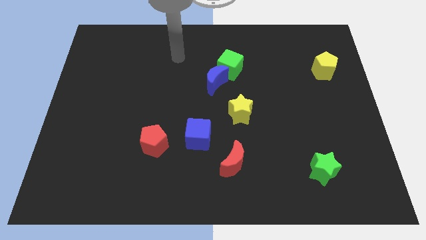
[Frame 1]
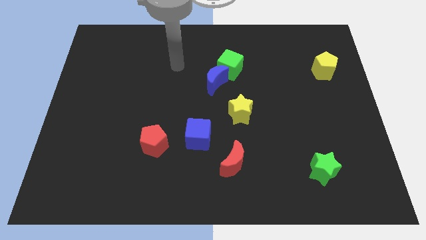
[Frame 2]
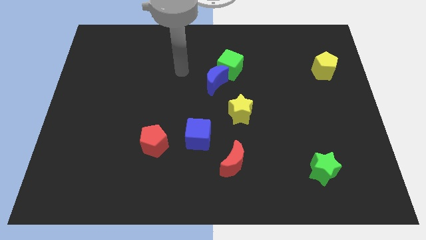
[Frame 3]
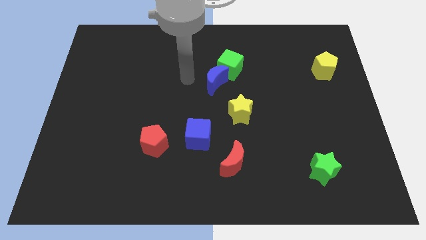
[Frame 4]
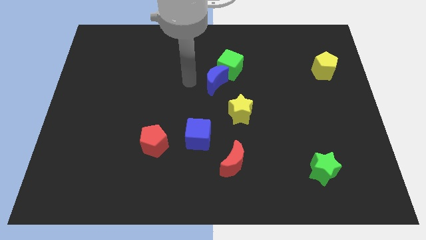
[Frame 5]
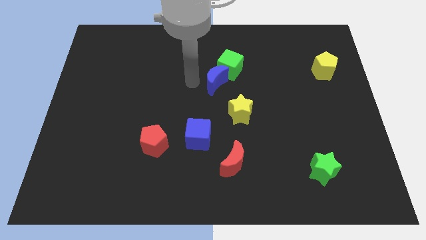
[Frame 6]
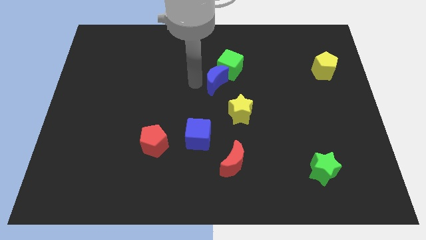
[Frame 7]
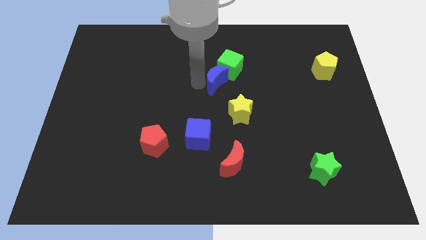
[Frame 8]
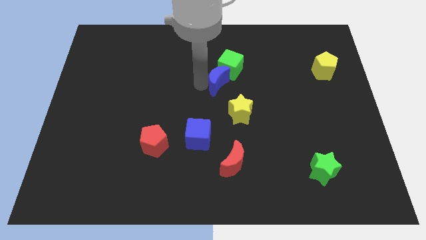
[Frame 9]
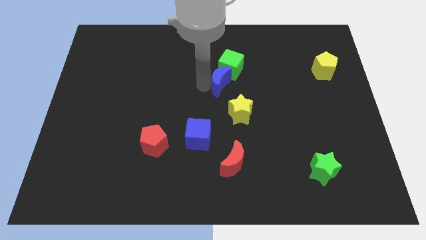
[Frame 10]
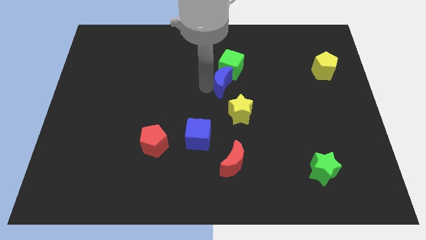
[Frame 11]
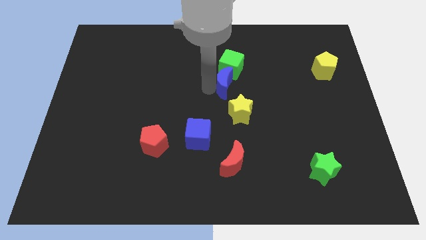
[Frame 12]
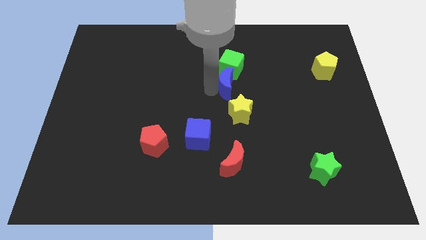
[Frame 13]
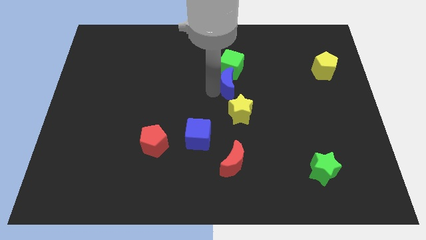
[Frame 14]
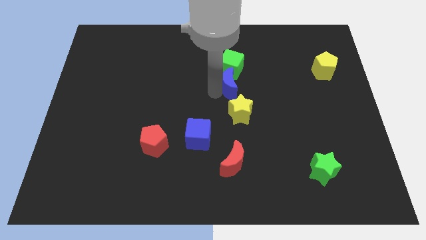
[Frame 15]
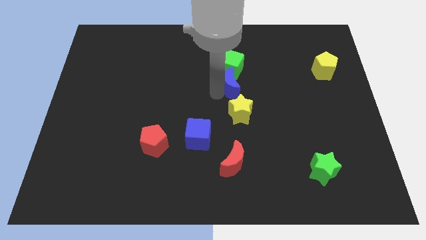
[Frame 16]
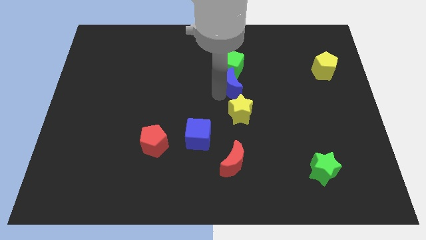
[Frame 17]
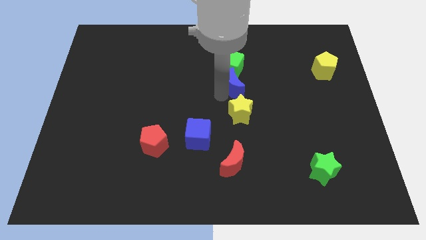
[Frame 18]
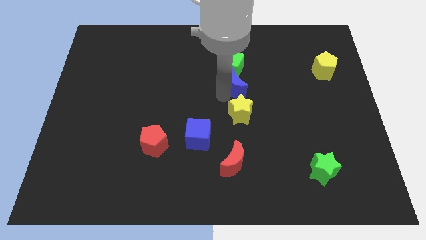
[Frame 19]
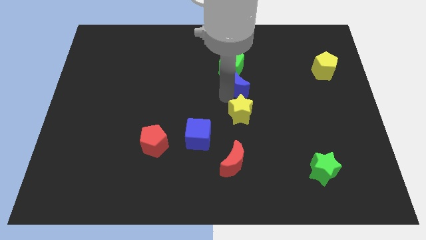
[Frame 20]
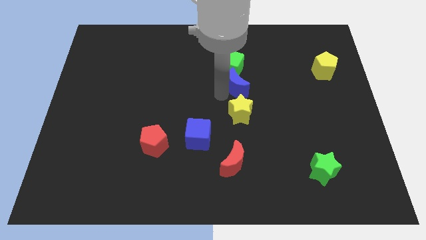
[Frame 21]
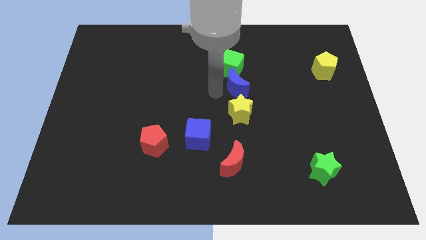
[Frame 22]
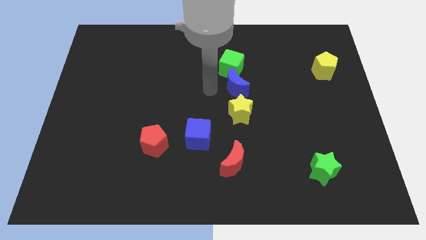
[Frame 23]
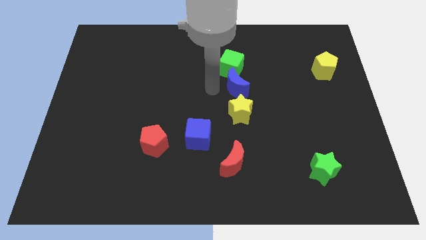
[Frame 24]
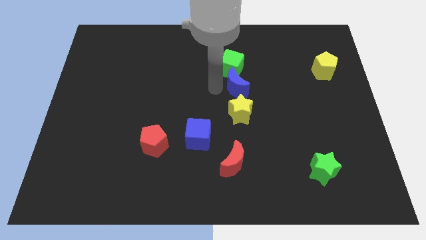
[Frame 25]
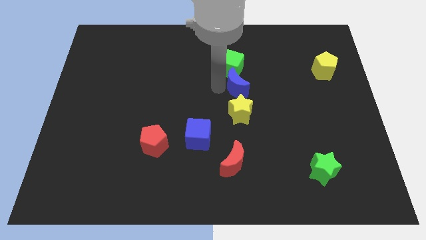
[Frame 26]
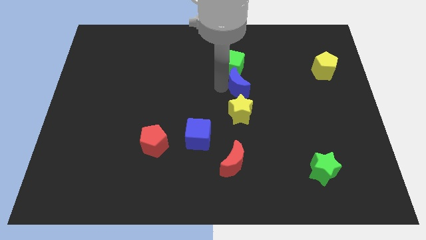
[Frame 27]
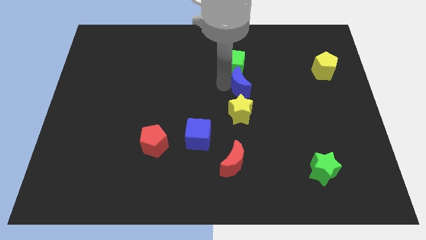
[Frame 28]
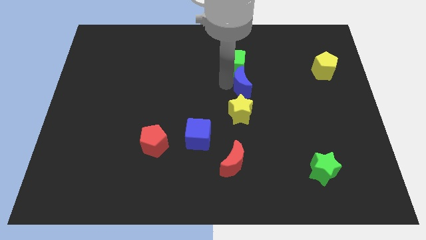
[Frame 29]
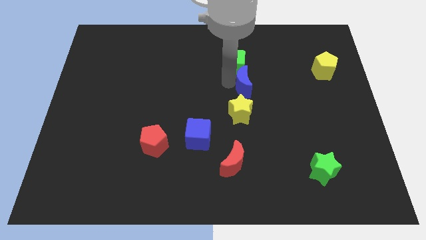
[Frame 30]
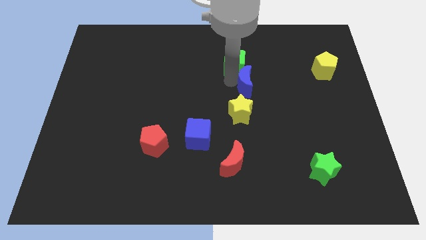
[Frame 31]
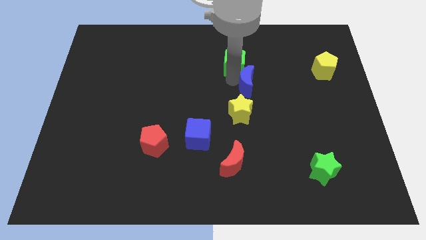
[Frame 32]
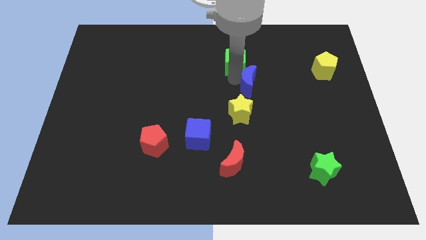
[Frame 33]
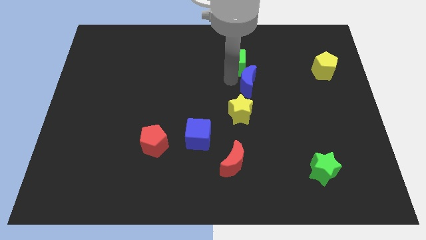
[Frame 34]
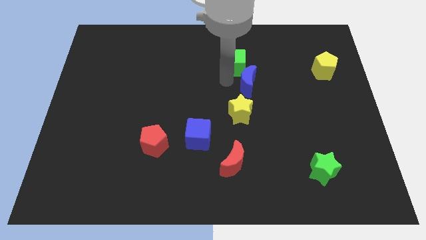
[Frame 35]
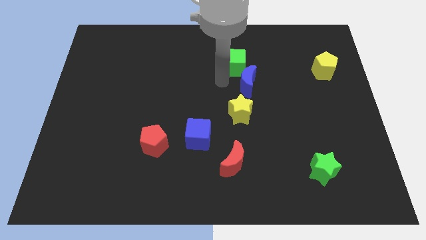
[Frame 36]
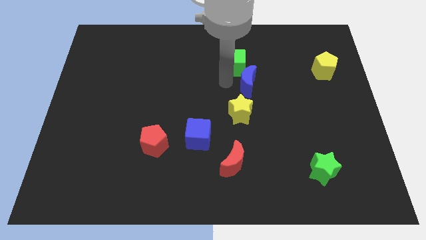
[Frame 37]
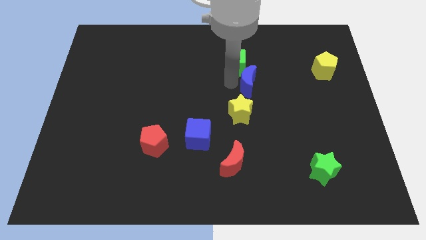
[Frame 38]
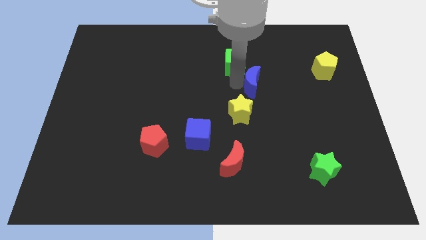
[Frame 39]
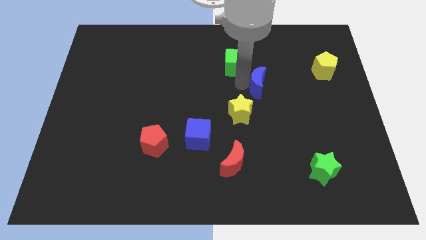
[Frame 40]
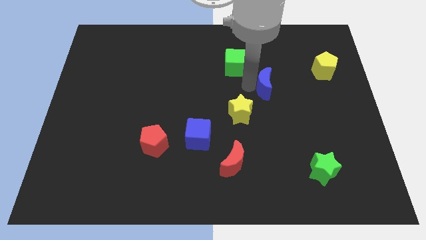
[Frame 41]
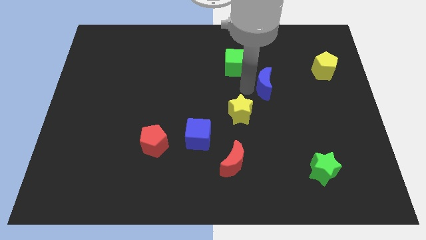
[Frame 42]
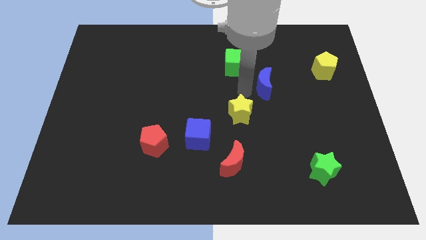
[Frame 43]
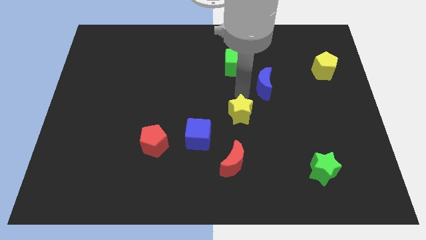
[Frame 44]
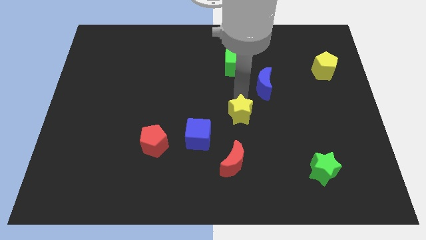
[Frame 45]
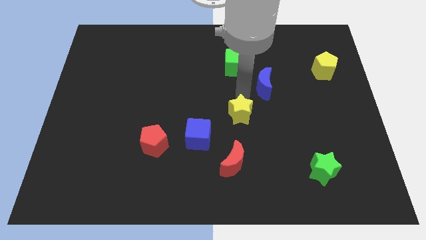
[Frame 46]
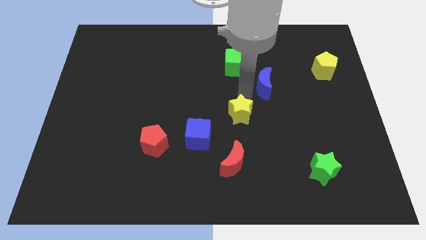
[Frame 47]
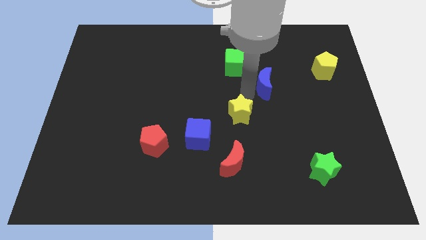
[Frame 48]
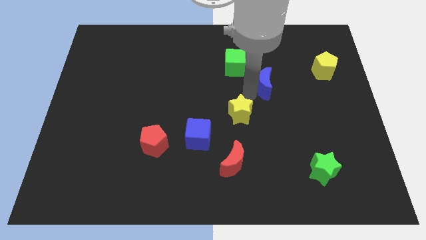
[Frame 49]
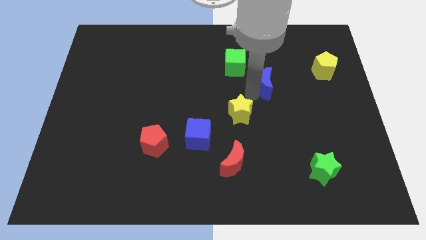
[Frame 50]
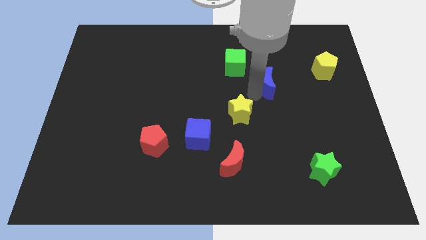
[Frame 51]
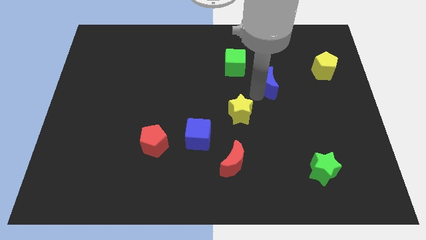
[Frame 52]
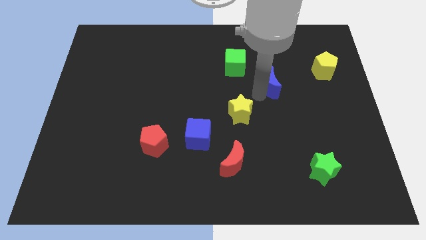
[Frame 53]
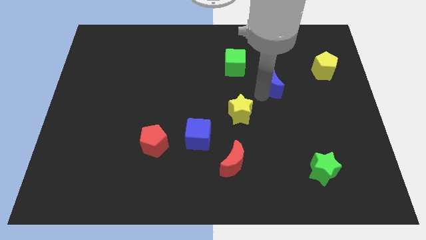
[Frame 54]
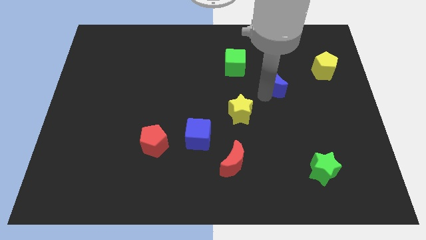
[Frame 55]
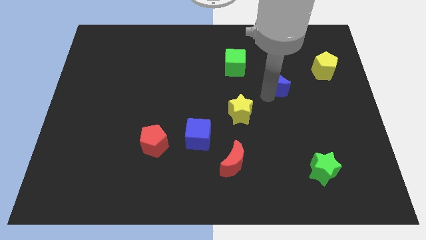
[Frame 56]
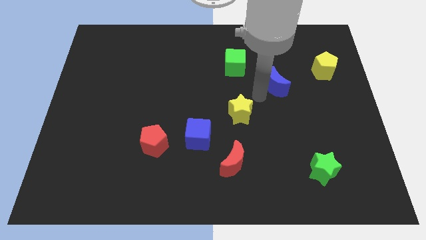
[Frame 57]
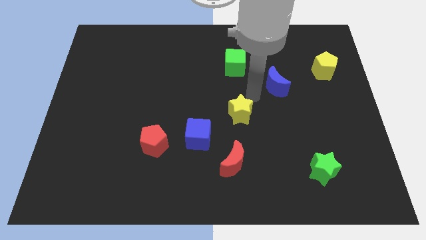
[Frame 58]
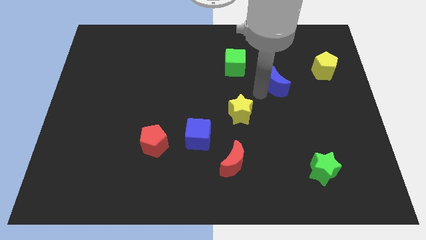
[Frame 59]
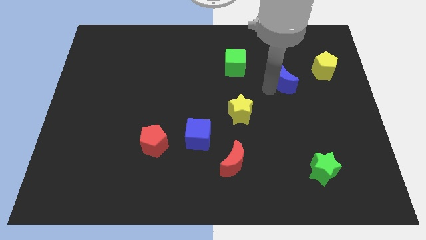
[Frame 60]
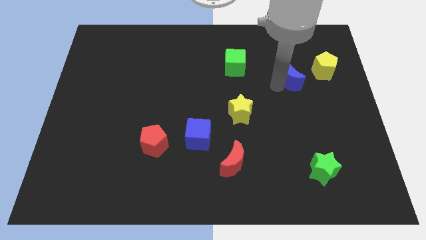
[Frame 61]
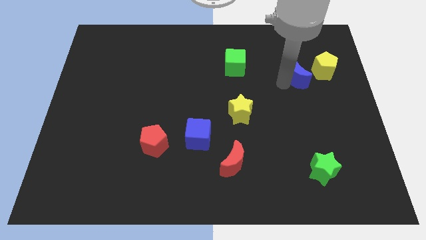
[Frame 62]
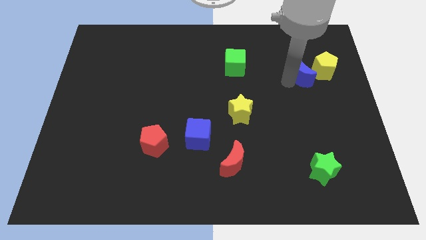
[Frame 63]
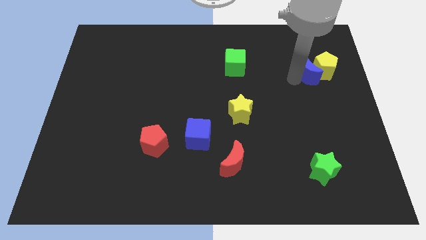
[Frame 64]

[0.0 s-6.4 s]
push the blue moon to the yellow pentagon
